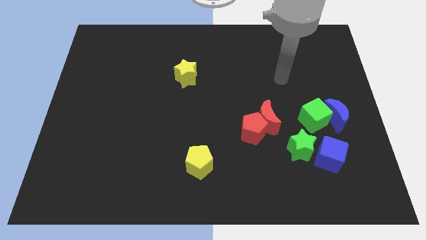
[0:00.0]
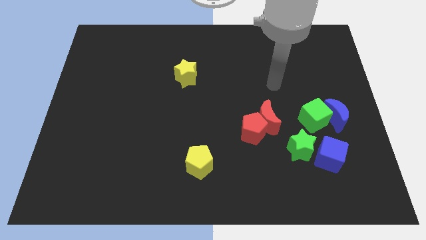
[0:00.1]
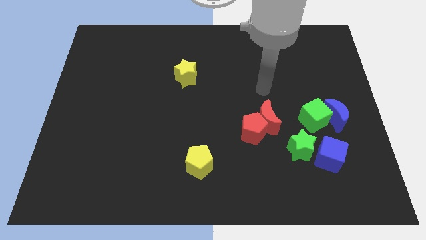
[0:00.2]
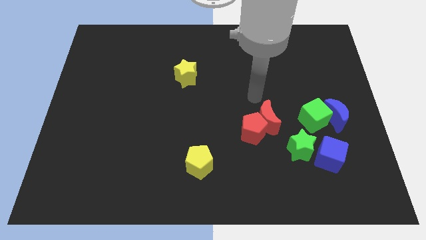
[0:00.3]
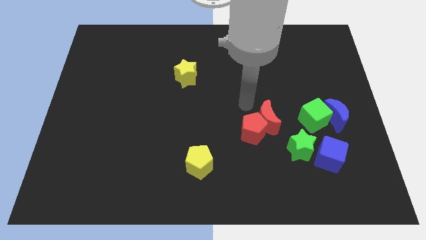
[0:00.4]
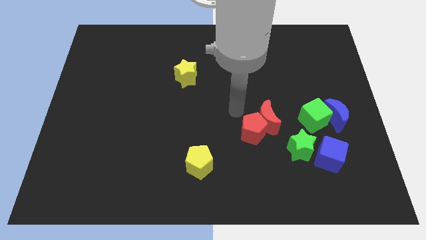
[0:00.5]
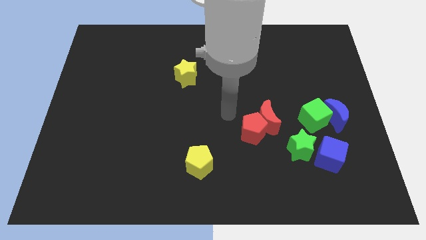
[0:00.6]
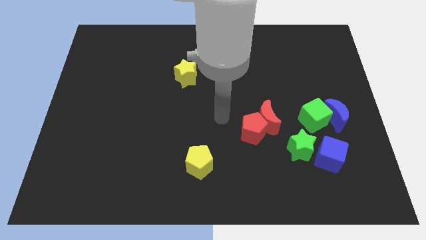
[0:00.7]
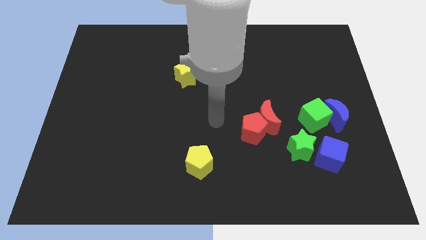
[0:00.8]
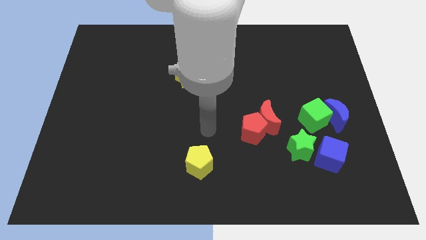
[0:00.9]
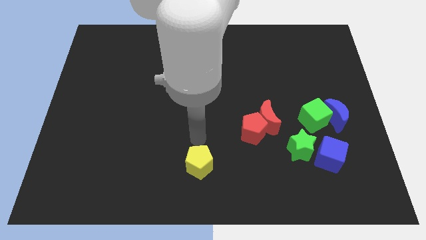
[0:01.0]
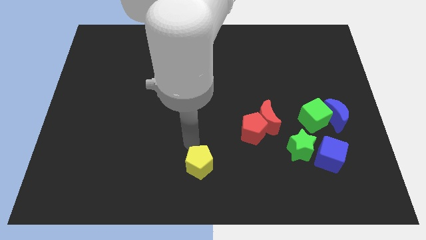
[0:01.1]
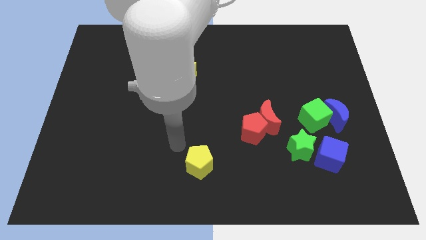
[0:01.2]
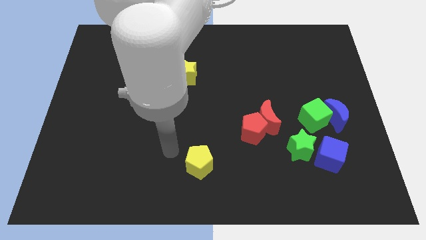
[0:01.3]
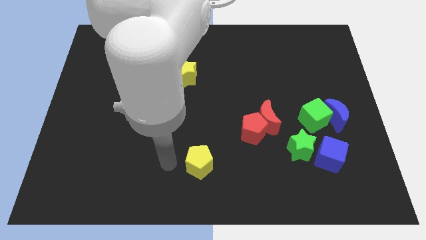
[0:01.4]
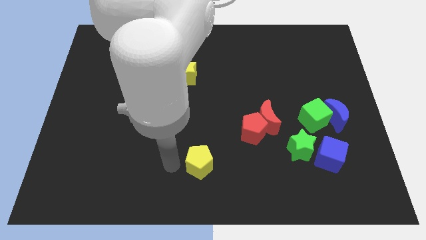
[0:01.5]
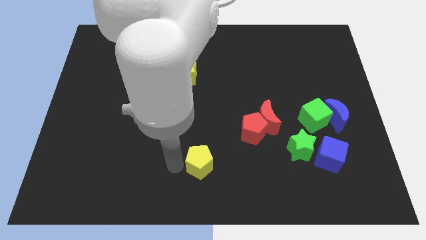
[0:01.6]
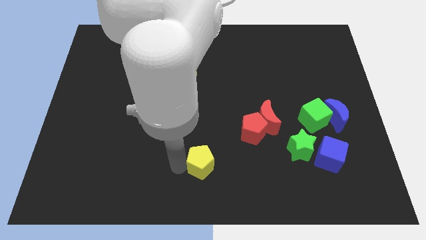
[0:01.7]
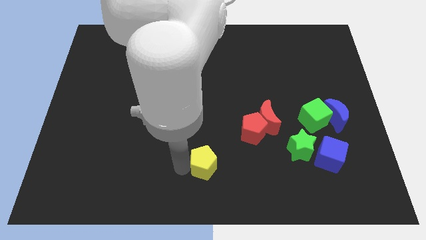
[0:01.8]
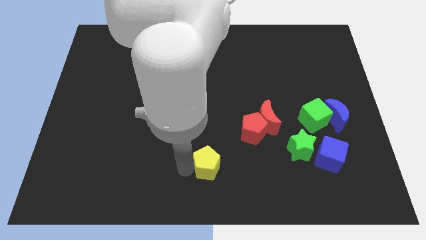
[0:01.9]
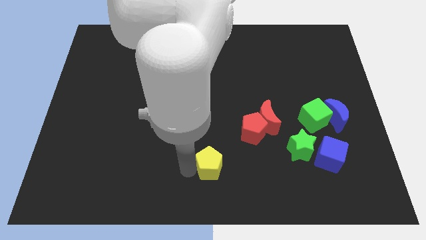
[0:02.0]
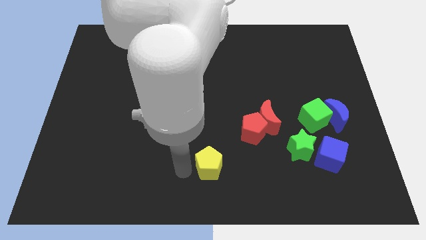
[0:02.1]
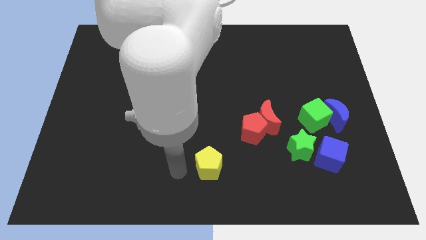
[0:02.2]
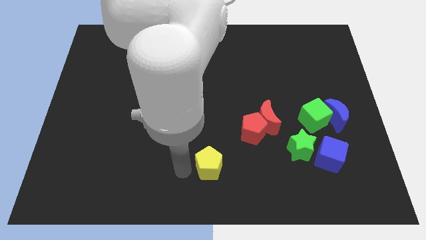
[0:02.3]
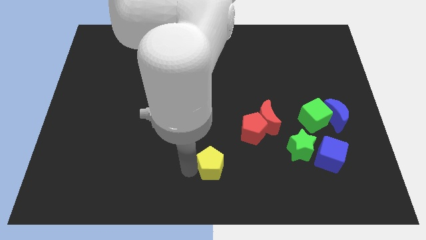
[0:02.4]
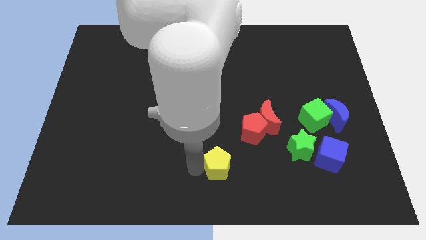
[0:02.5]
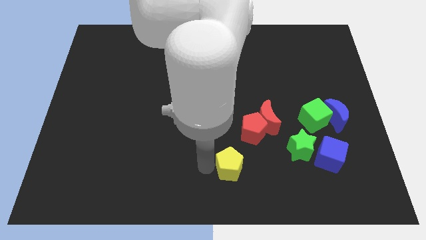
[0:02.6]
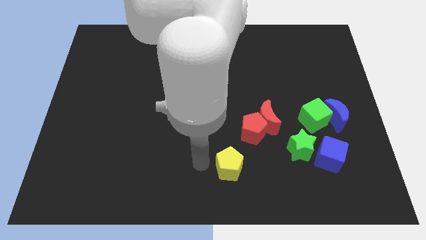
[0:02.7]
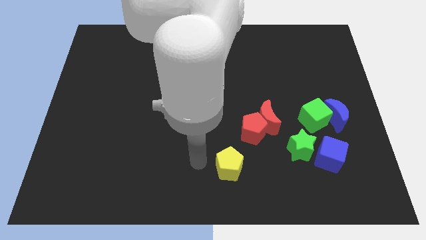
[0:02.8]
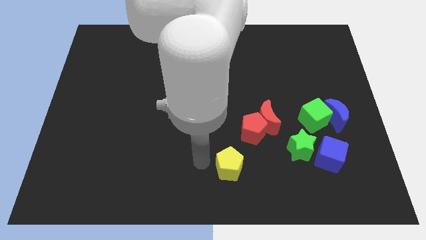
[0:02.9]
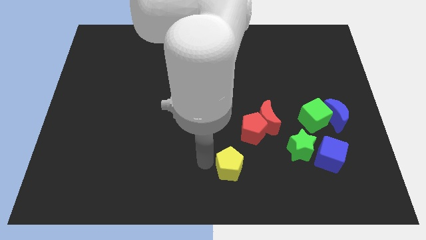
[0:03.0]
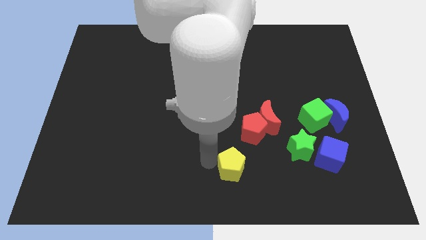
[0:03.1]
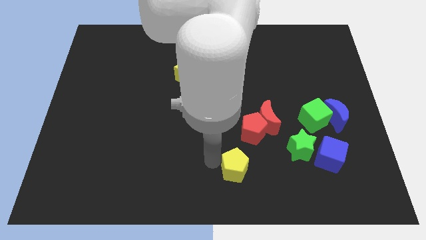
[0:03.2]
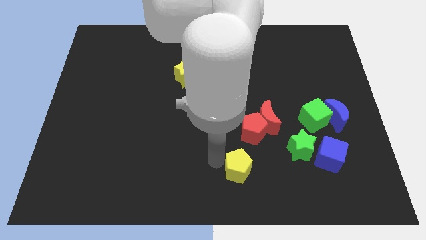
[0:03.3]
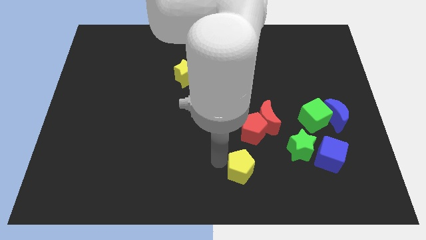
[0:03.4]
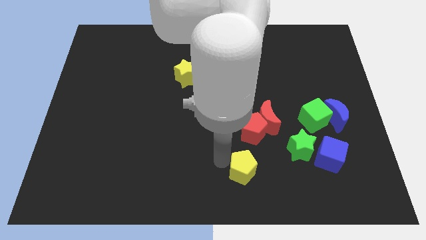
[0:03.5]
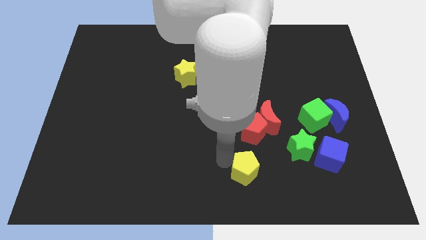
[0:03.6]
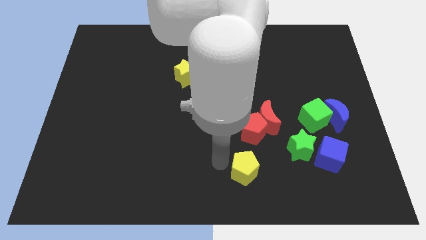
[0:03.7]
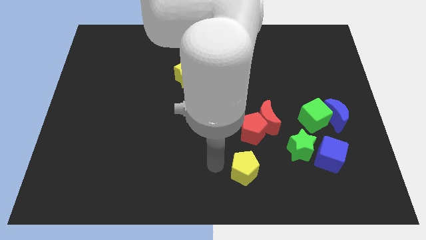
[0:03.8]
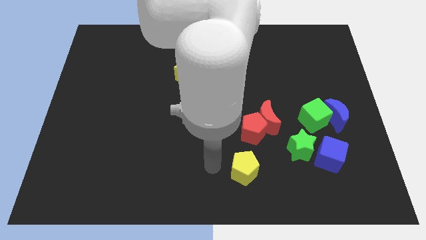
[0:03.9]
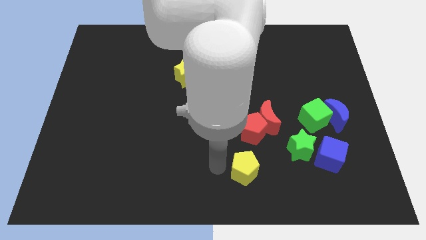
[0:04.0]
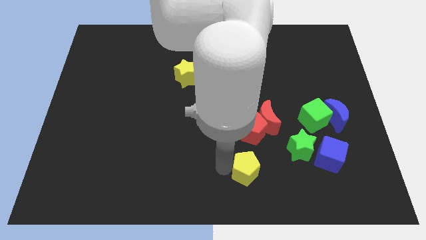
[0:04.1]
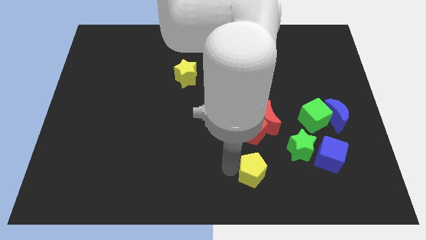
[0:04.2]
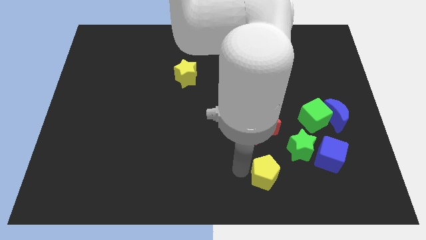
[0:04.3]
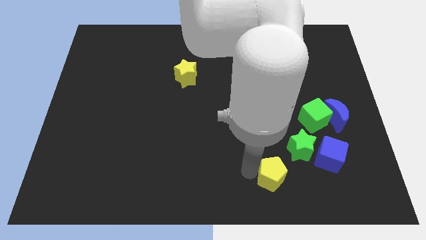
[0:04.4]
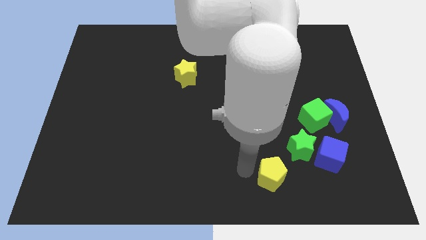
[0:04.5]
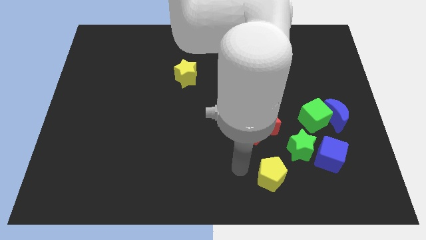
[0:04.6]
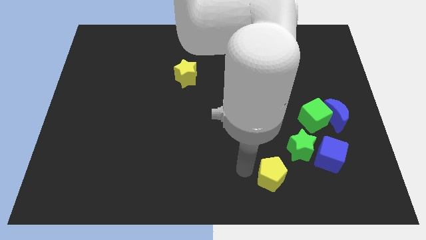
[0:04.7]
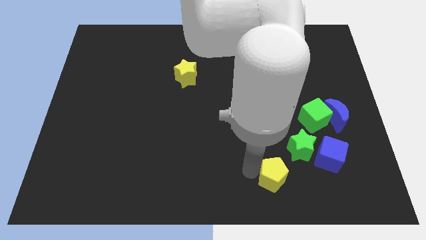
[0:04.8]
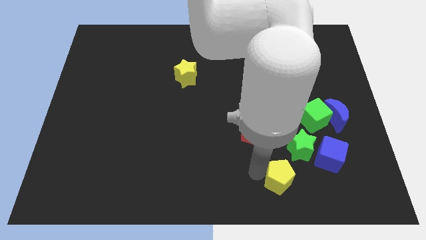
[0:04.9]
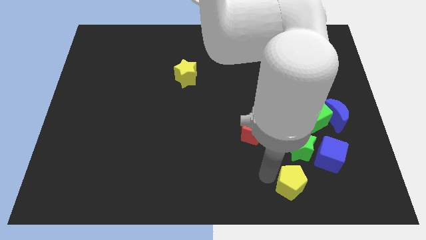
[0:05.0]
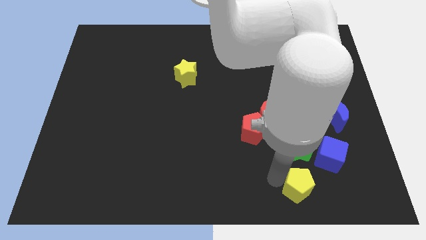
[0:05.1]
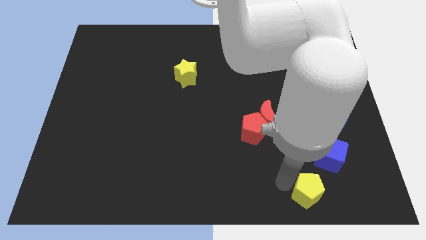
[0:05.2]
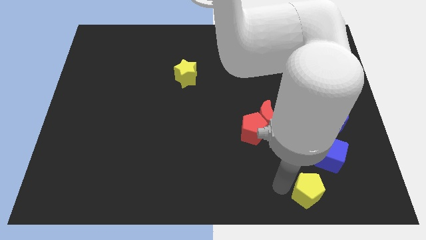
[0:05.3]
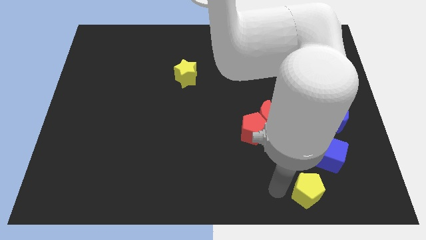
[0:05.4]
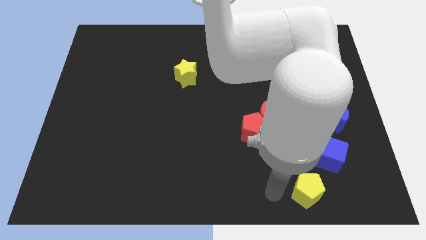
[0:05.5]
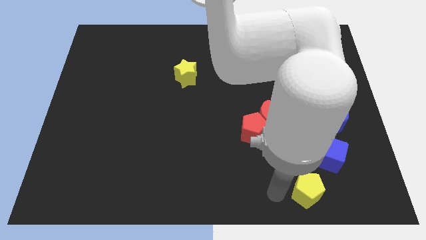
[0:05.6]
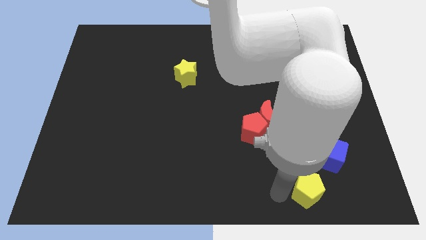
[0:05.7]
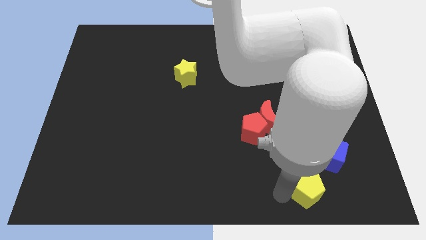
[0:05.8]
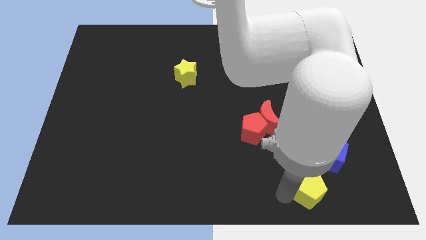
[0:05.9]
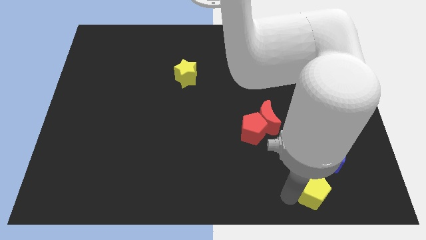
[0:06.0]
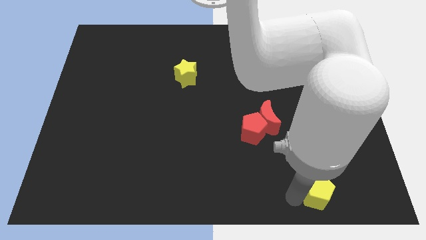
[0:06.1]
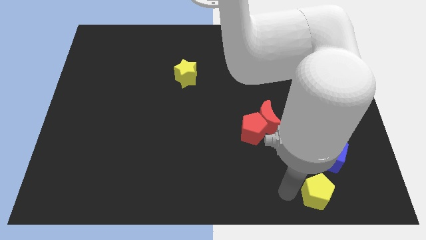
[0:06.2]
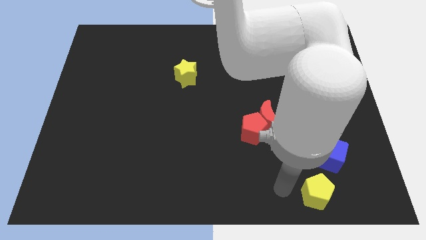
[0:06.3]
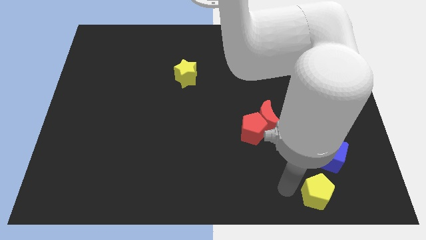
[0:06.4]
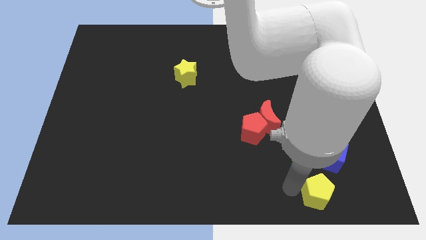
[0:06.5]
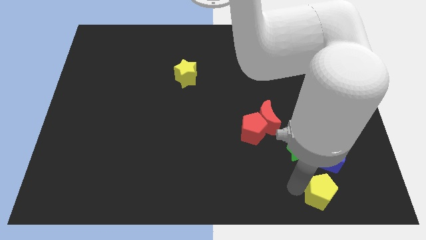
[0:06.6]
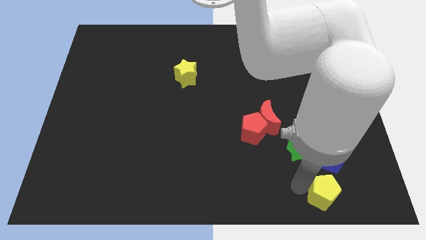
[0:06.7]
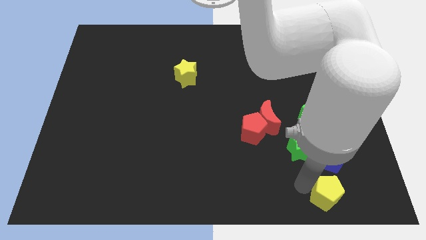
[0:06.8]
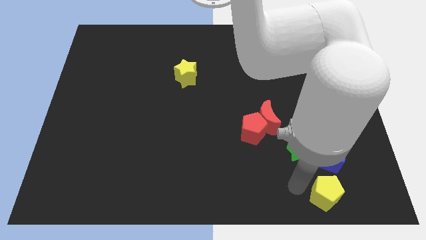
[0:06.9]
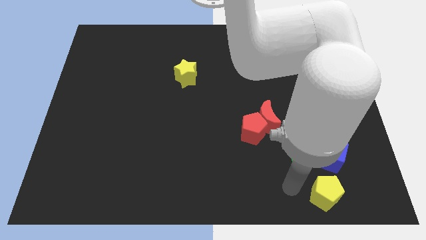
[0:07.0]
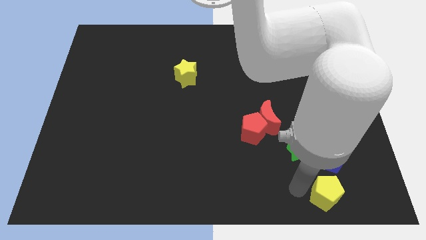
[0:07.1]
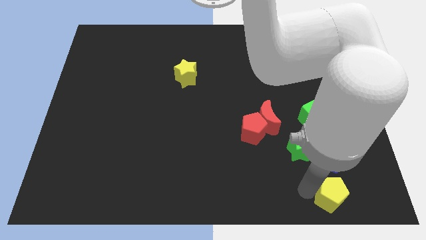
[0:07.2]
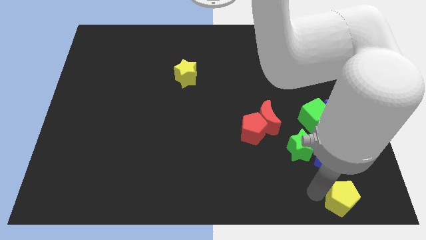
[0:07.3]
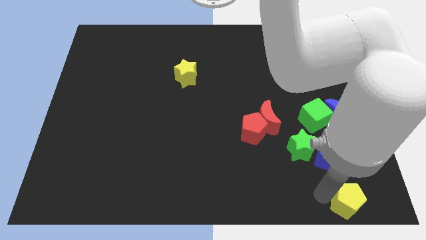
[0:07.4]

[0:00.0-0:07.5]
move the yellow pentagon to the bottom right of the board
